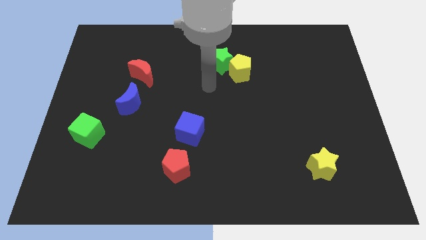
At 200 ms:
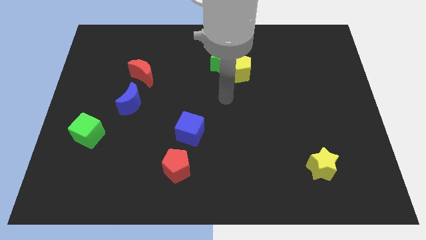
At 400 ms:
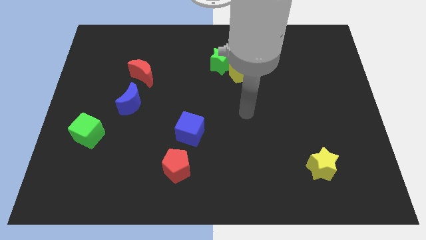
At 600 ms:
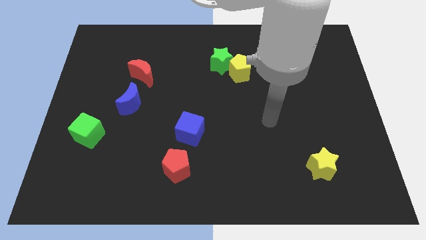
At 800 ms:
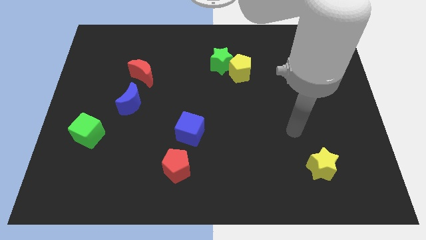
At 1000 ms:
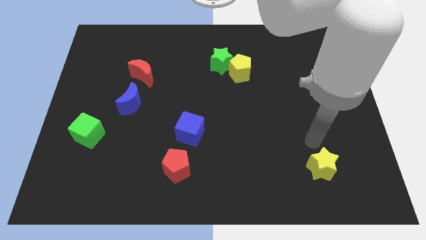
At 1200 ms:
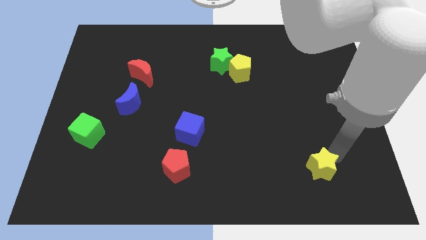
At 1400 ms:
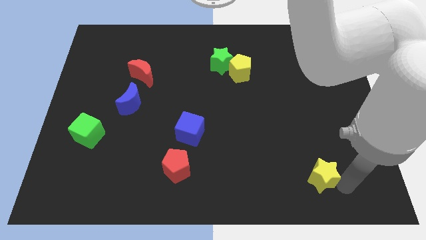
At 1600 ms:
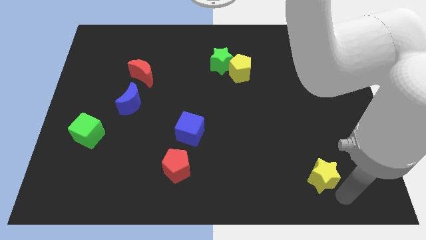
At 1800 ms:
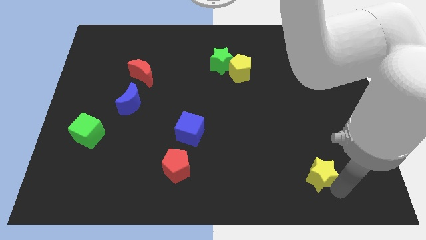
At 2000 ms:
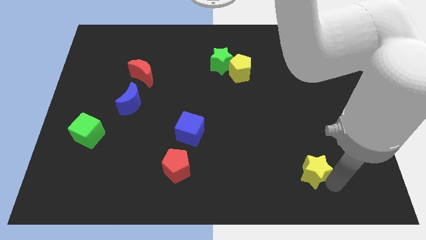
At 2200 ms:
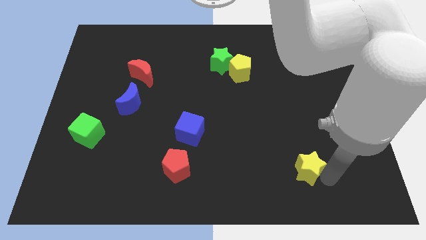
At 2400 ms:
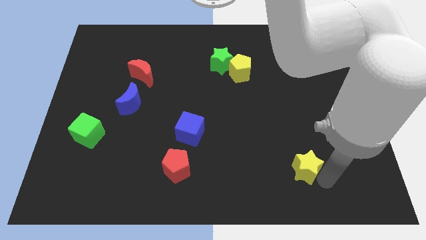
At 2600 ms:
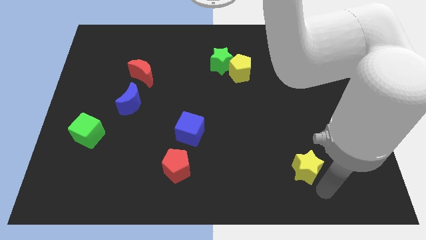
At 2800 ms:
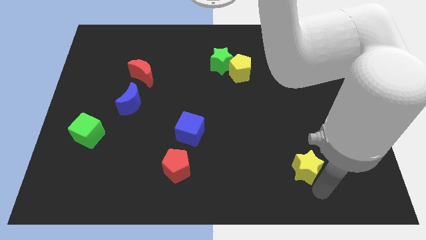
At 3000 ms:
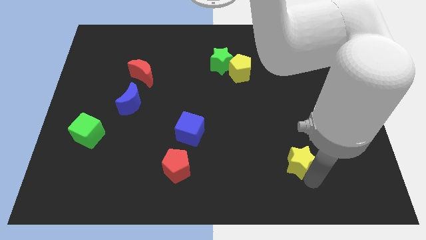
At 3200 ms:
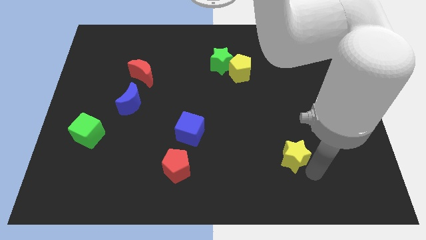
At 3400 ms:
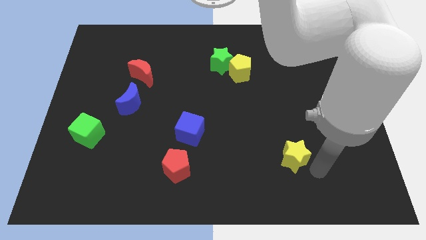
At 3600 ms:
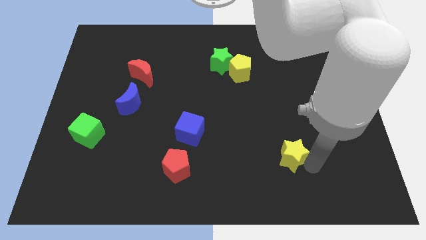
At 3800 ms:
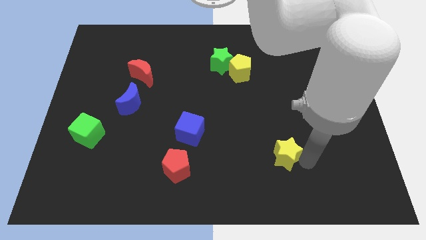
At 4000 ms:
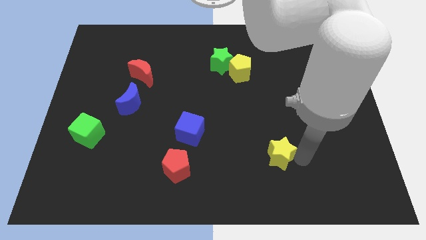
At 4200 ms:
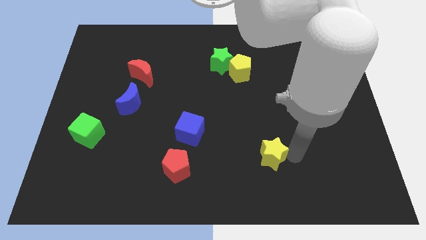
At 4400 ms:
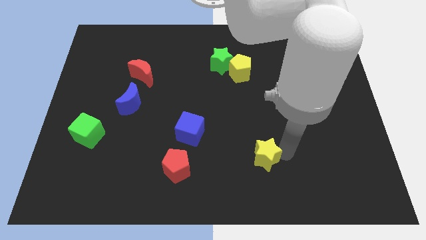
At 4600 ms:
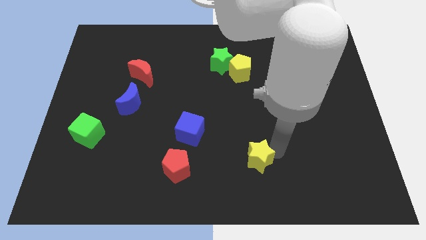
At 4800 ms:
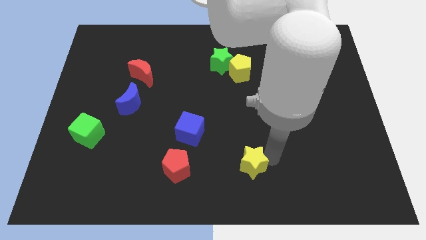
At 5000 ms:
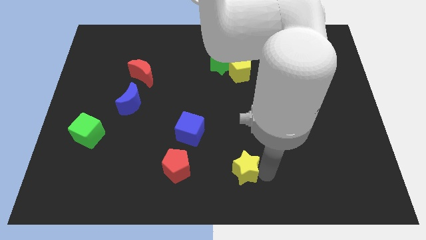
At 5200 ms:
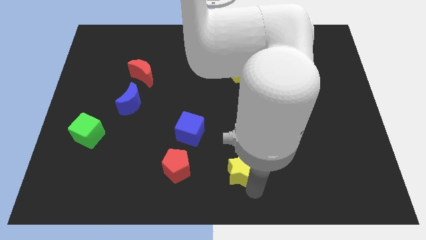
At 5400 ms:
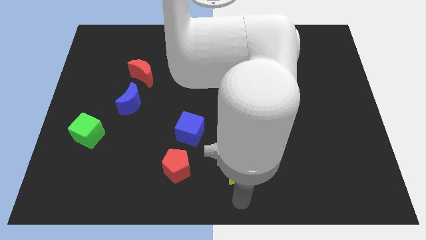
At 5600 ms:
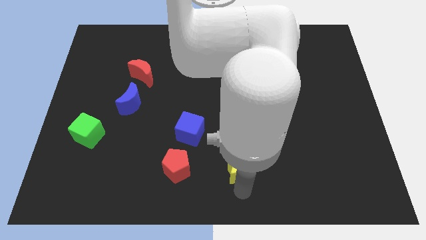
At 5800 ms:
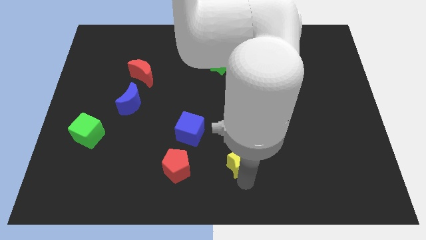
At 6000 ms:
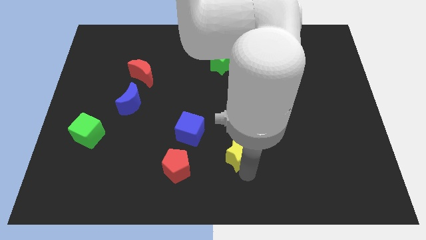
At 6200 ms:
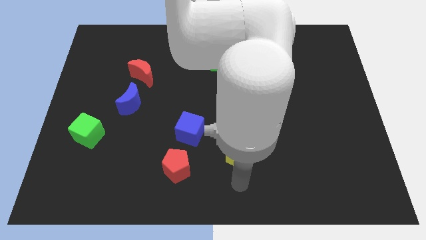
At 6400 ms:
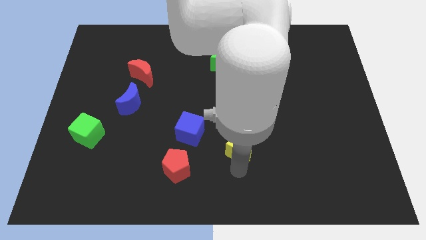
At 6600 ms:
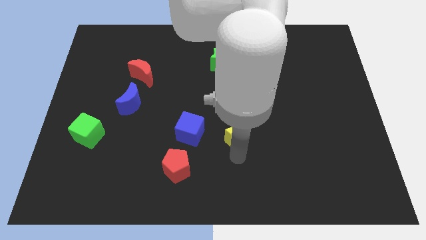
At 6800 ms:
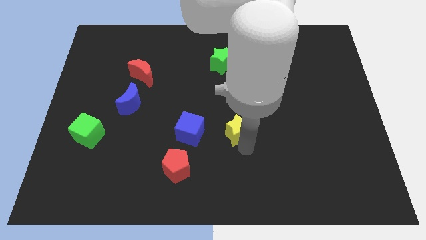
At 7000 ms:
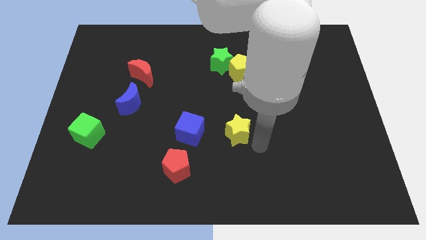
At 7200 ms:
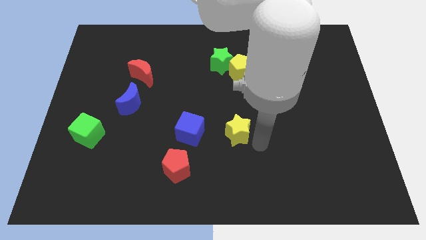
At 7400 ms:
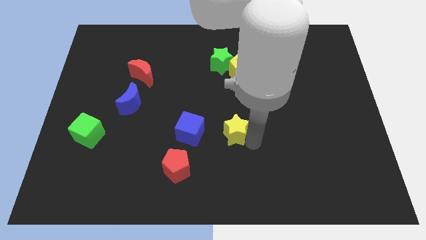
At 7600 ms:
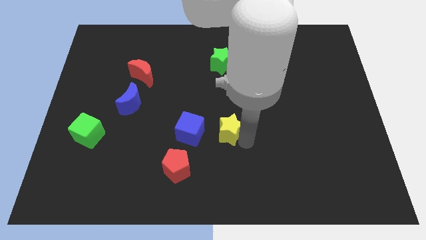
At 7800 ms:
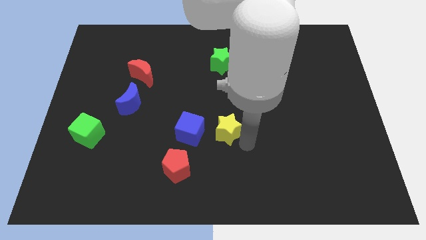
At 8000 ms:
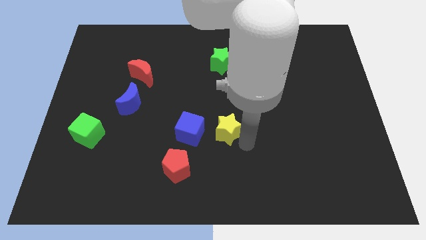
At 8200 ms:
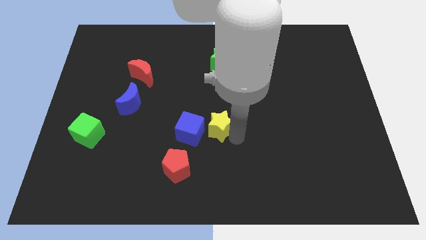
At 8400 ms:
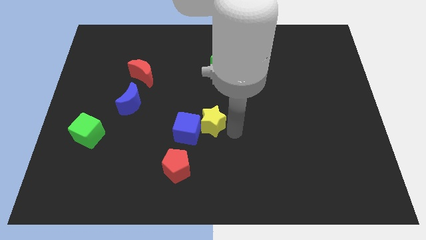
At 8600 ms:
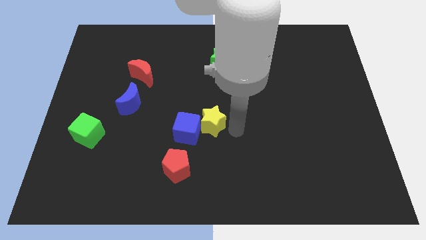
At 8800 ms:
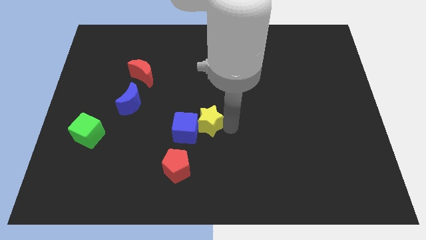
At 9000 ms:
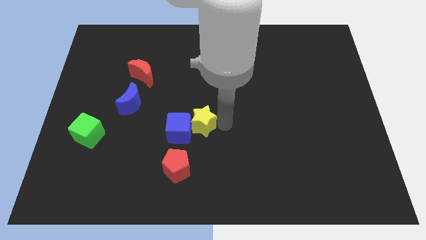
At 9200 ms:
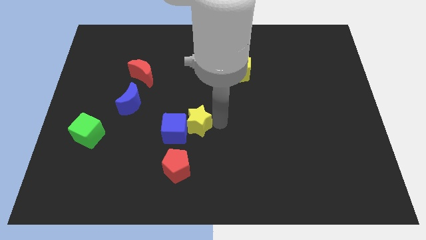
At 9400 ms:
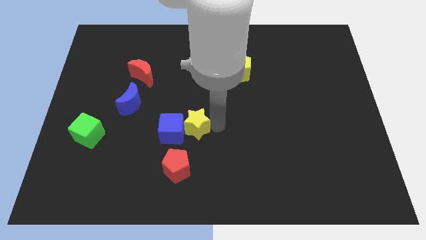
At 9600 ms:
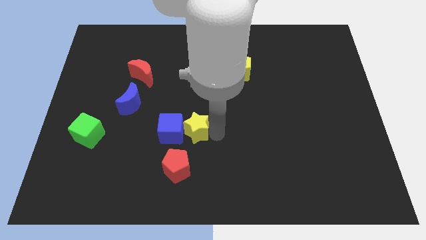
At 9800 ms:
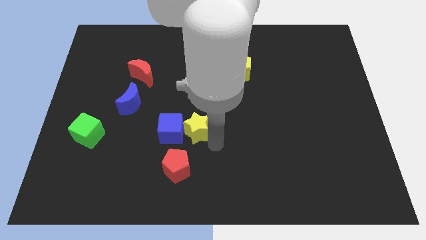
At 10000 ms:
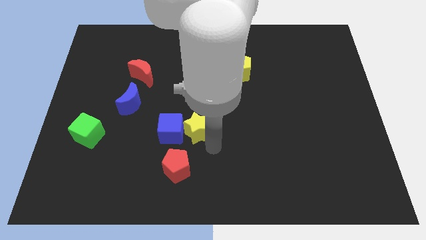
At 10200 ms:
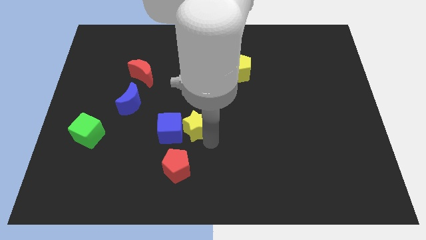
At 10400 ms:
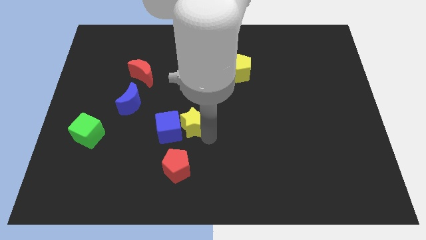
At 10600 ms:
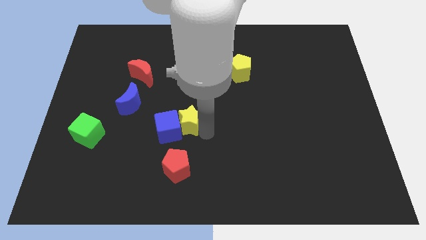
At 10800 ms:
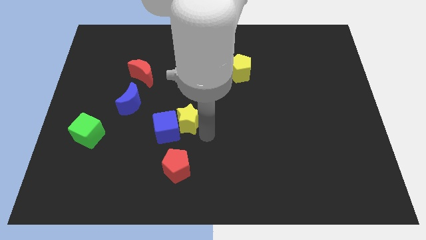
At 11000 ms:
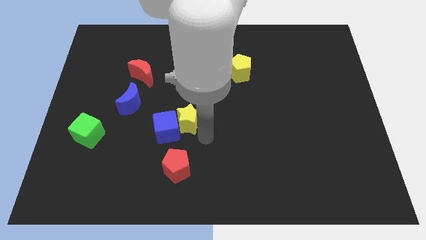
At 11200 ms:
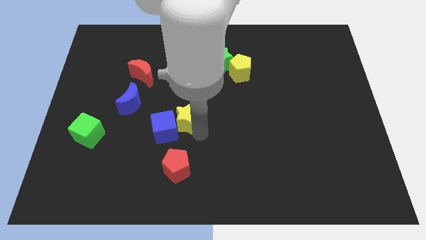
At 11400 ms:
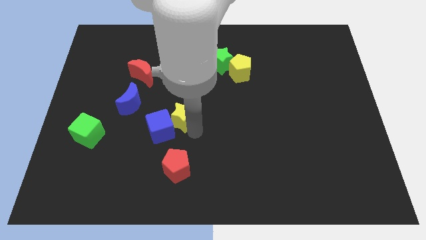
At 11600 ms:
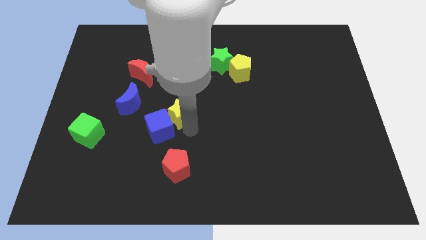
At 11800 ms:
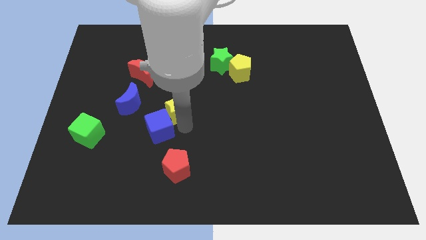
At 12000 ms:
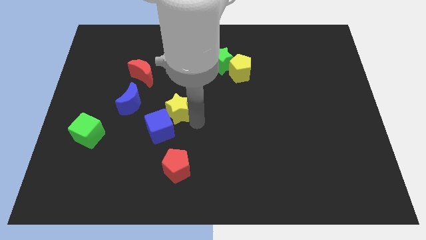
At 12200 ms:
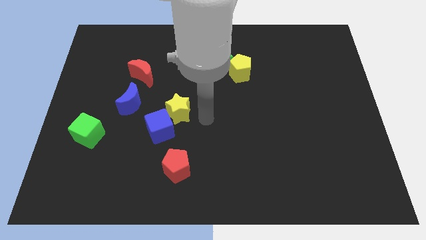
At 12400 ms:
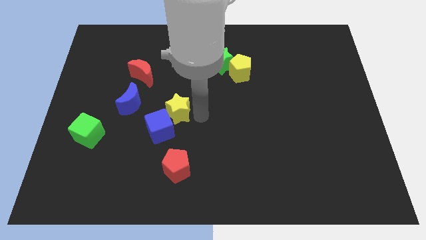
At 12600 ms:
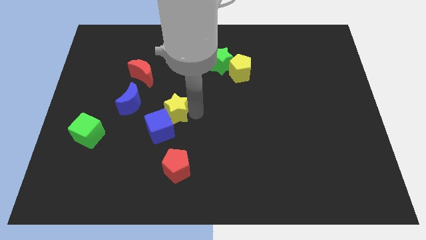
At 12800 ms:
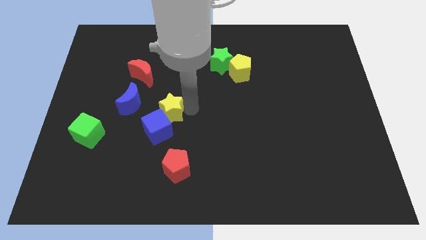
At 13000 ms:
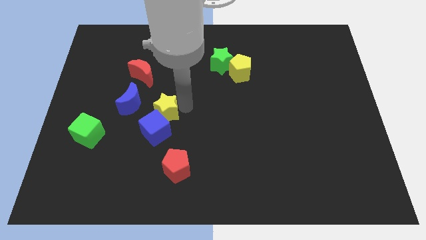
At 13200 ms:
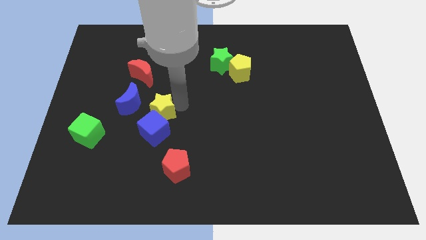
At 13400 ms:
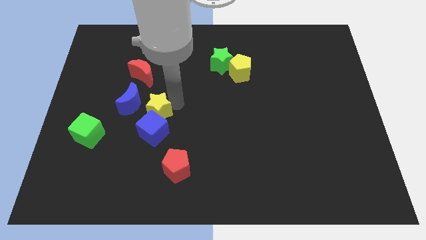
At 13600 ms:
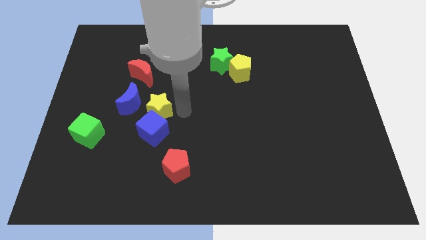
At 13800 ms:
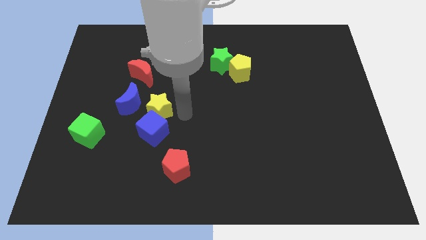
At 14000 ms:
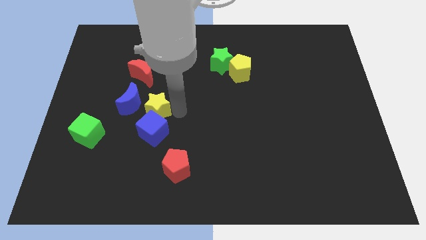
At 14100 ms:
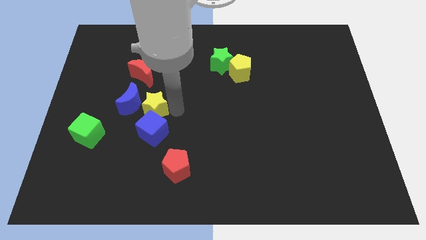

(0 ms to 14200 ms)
slide the yellow star to the blue moon
